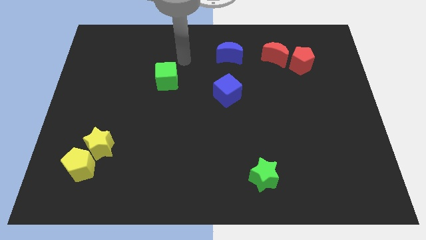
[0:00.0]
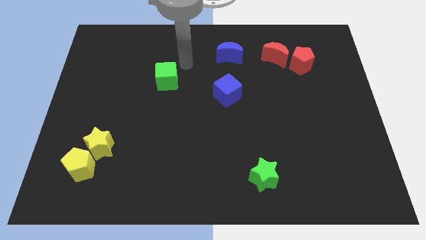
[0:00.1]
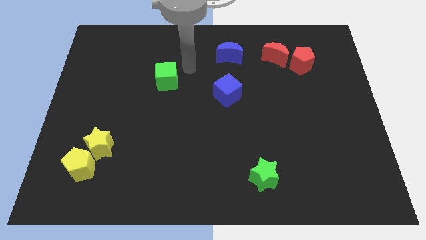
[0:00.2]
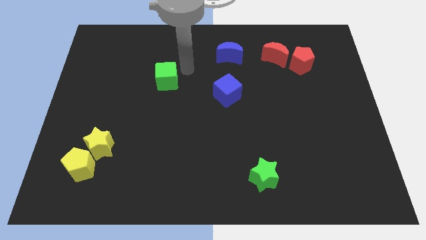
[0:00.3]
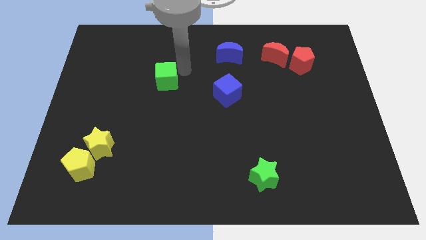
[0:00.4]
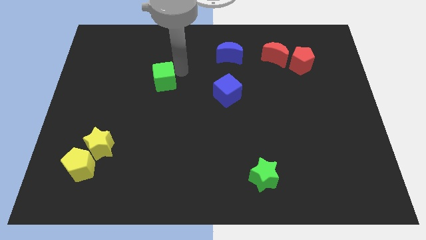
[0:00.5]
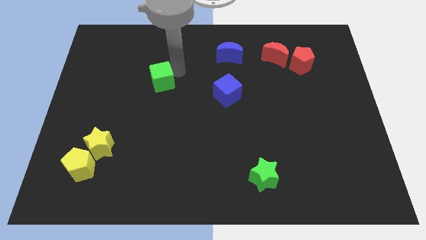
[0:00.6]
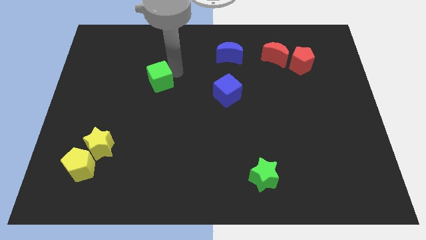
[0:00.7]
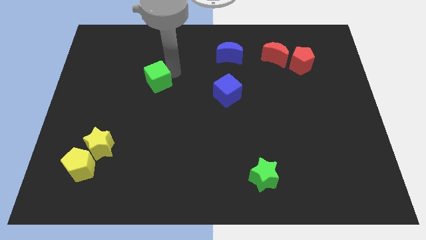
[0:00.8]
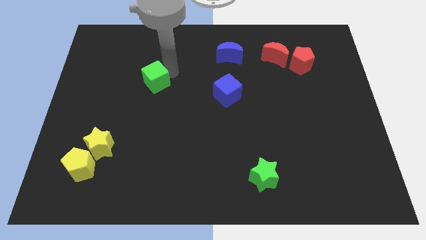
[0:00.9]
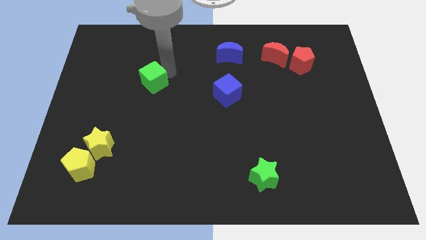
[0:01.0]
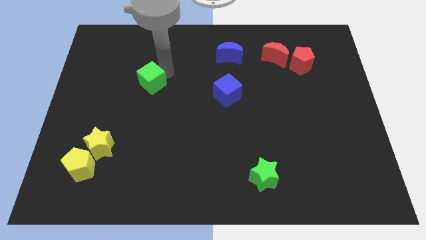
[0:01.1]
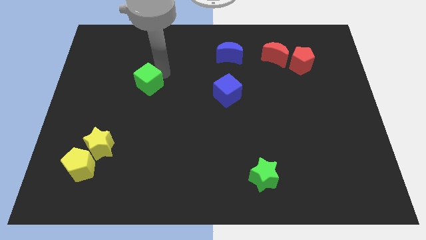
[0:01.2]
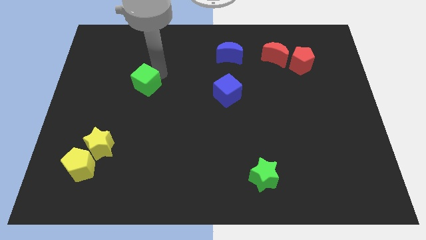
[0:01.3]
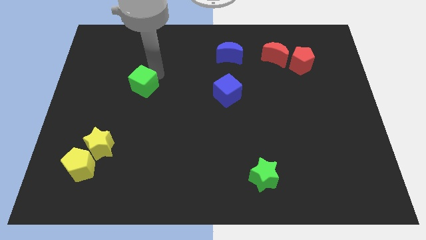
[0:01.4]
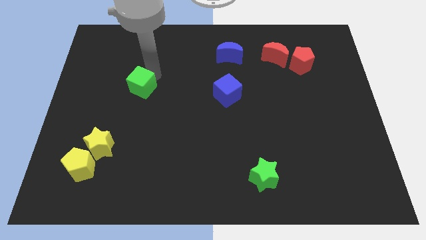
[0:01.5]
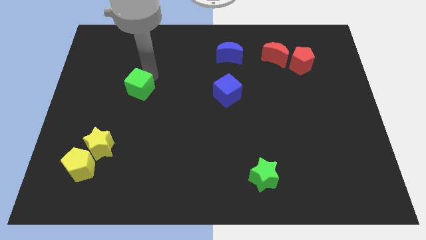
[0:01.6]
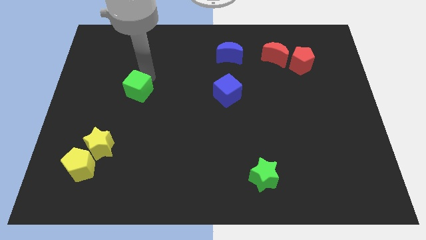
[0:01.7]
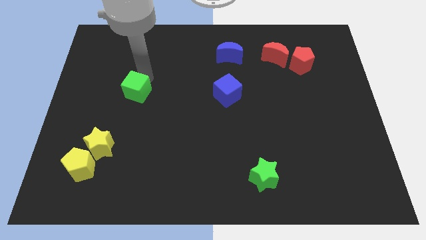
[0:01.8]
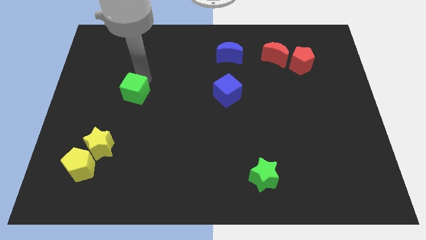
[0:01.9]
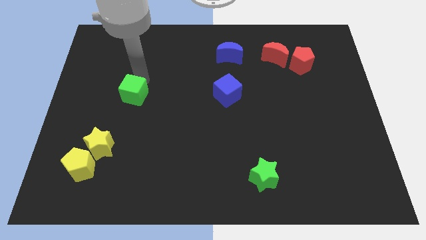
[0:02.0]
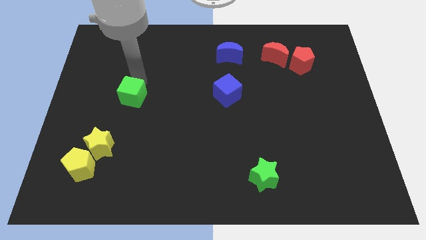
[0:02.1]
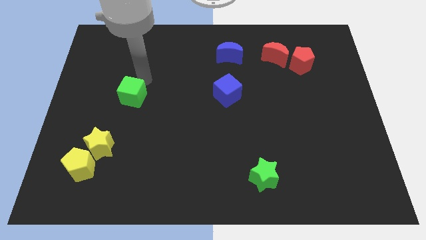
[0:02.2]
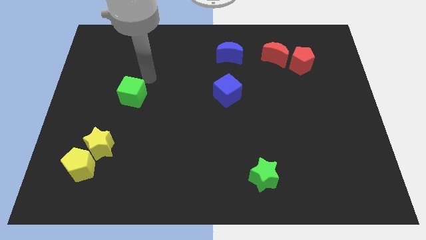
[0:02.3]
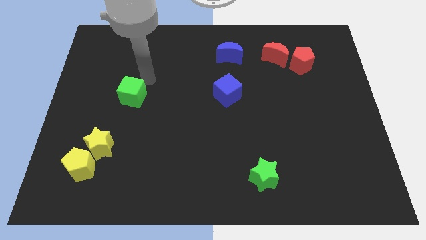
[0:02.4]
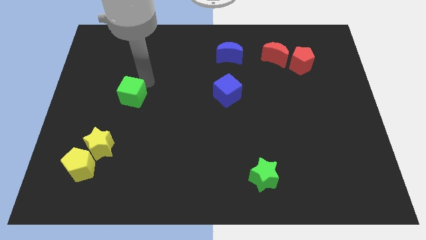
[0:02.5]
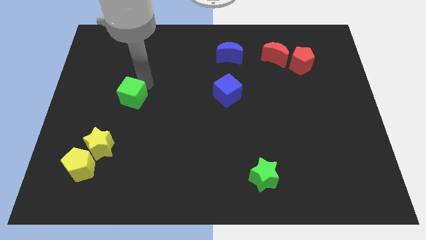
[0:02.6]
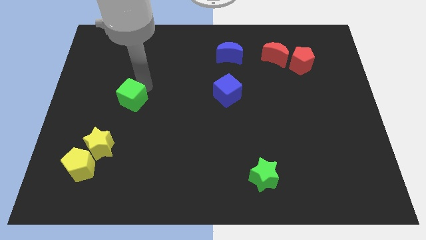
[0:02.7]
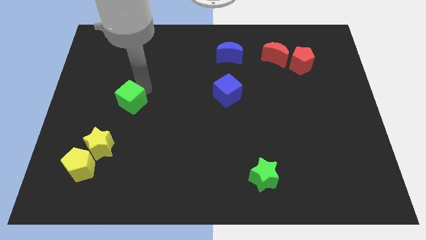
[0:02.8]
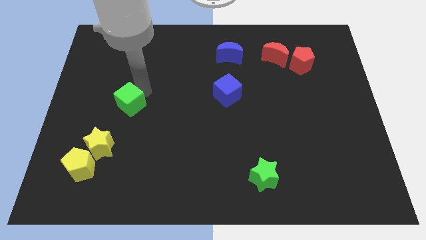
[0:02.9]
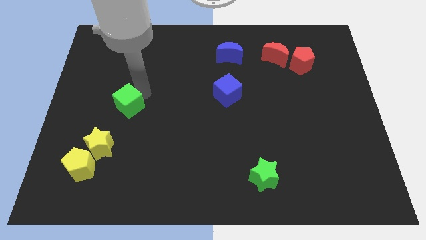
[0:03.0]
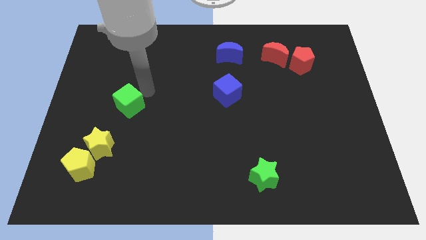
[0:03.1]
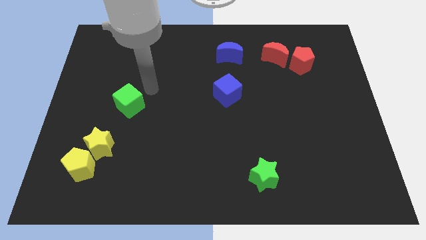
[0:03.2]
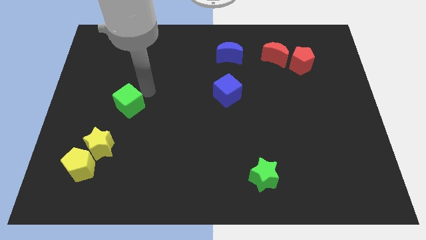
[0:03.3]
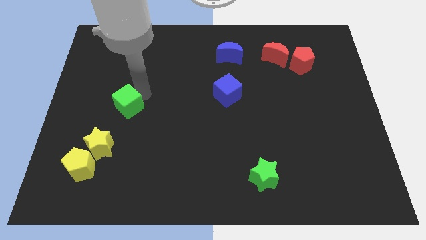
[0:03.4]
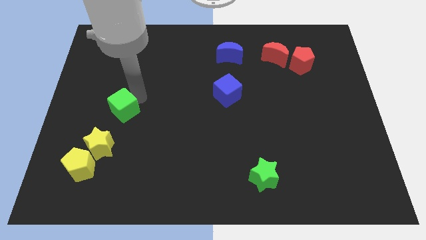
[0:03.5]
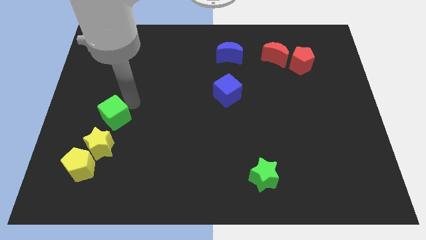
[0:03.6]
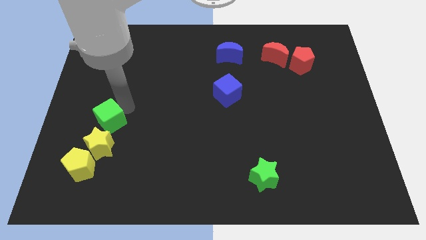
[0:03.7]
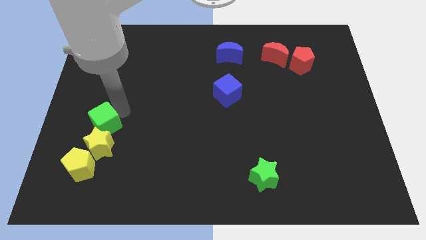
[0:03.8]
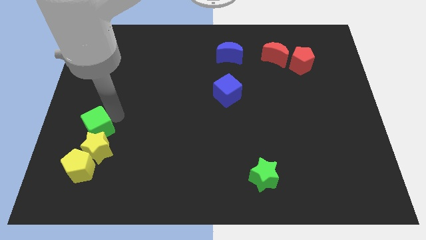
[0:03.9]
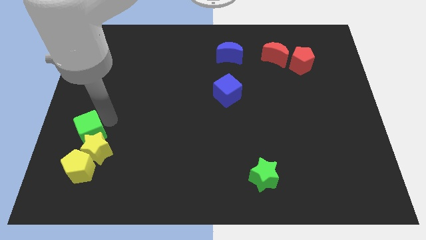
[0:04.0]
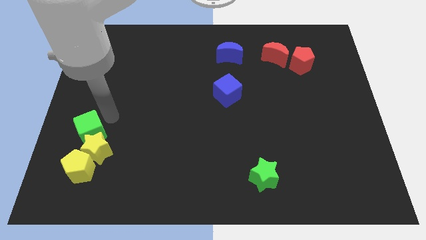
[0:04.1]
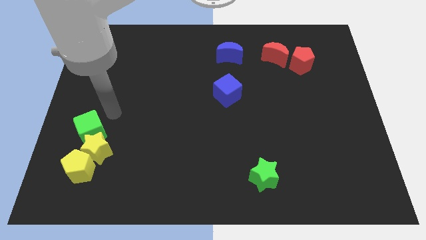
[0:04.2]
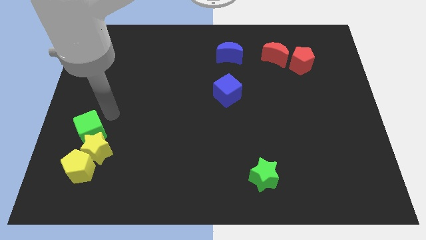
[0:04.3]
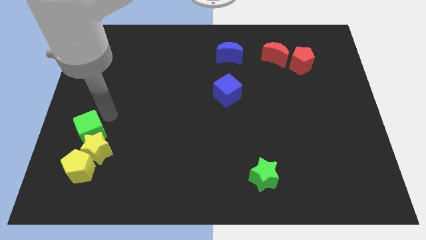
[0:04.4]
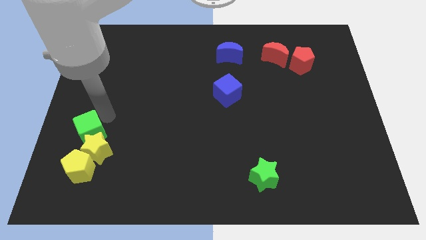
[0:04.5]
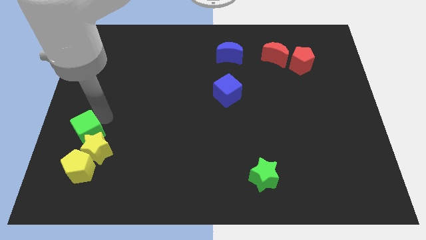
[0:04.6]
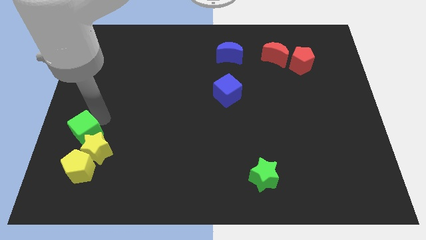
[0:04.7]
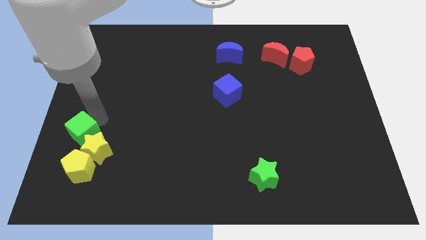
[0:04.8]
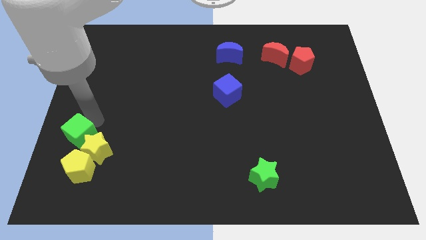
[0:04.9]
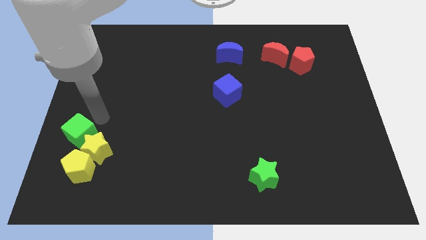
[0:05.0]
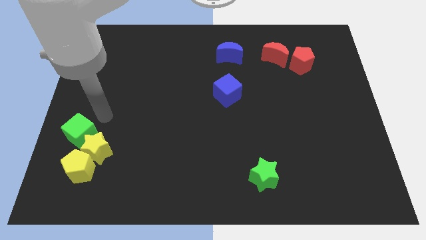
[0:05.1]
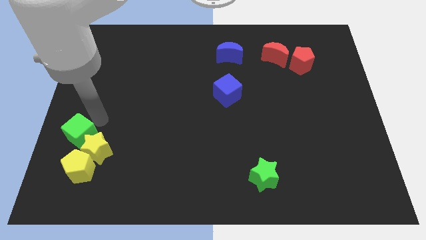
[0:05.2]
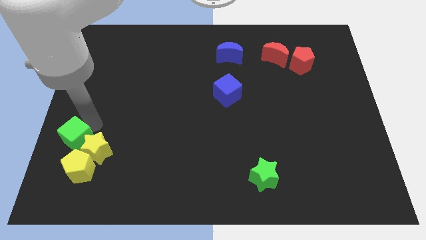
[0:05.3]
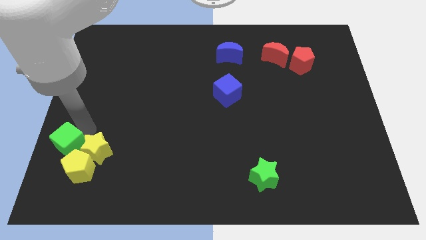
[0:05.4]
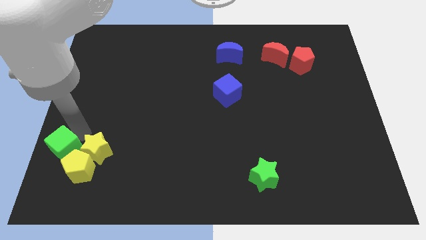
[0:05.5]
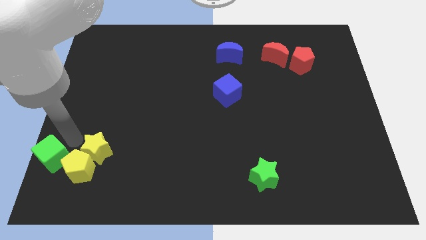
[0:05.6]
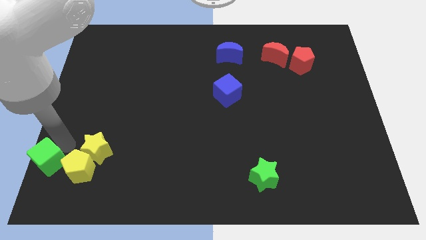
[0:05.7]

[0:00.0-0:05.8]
move the green cube to the bottom left corner
